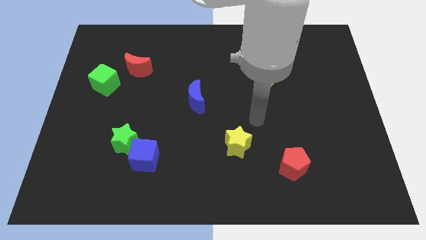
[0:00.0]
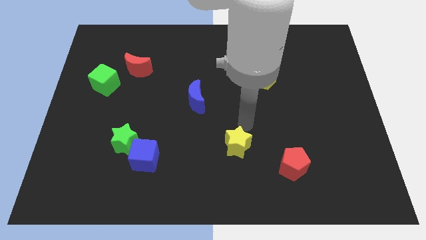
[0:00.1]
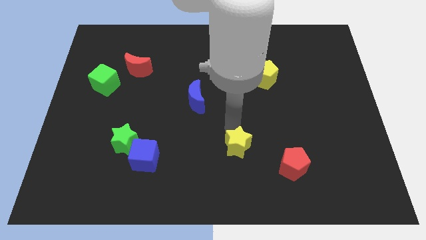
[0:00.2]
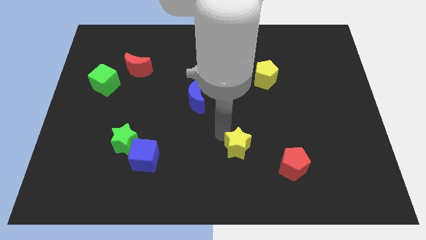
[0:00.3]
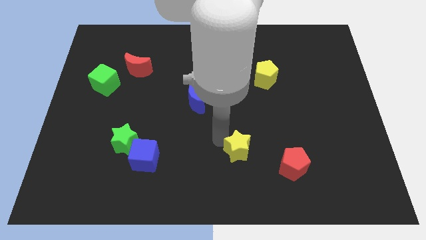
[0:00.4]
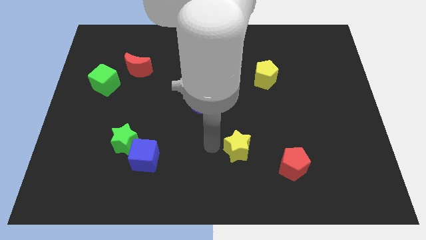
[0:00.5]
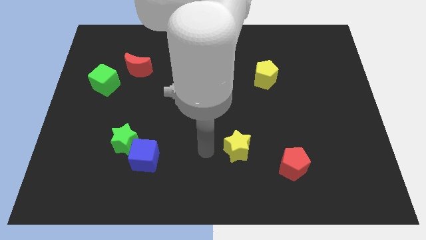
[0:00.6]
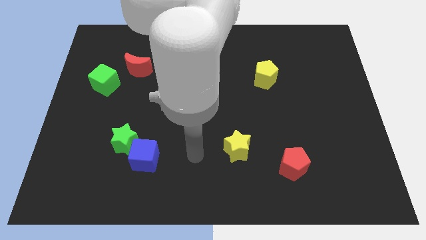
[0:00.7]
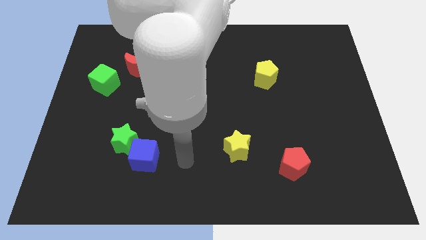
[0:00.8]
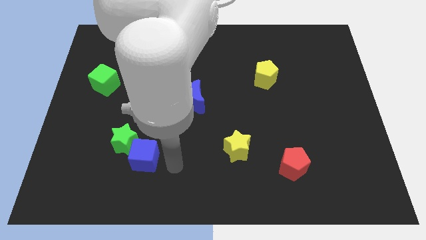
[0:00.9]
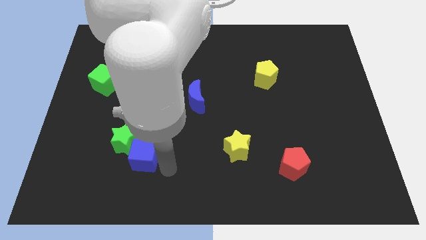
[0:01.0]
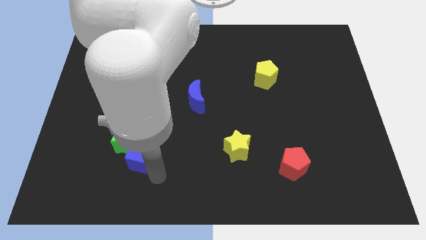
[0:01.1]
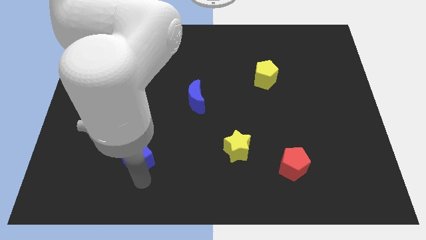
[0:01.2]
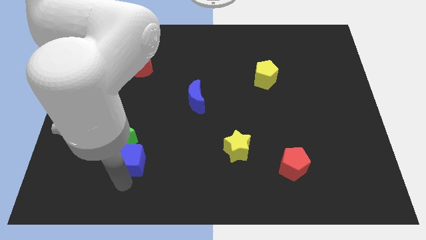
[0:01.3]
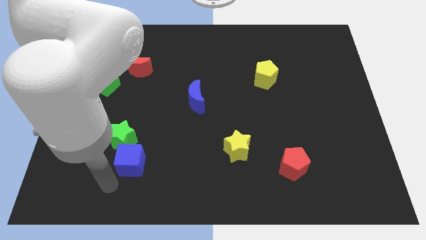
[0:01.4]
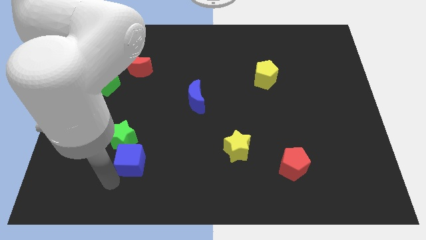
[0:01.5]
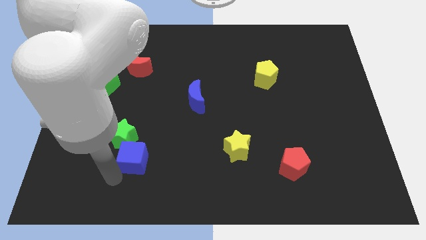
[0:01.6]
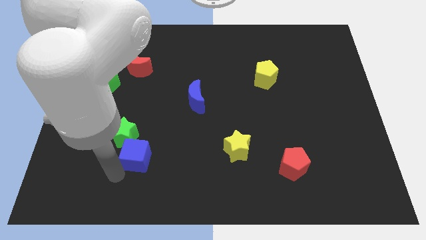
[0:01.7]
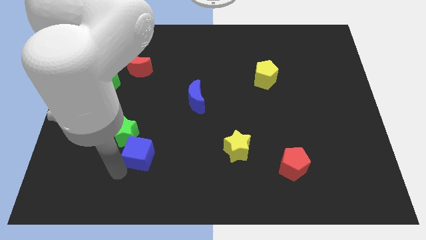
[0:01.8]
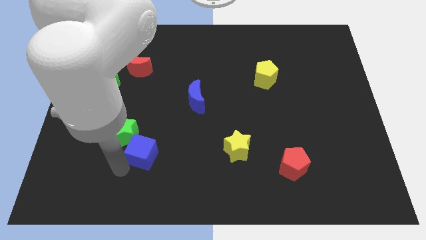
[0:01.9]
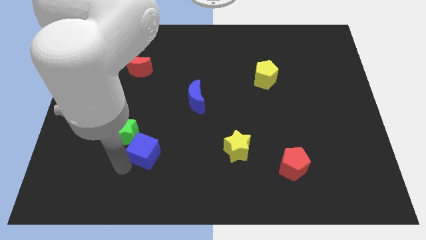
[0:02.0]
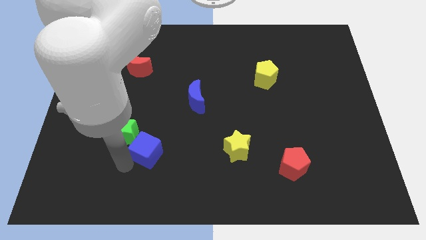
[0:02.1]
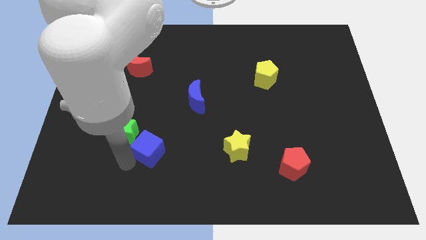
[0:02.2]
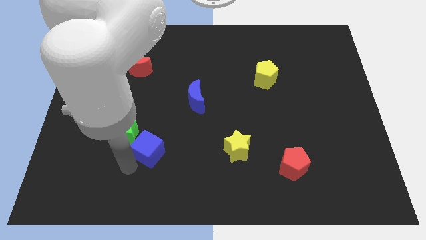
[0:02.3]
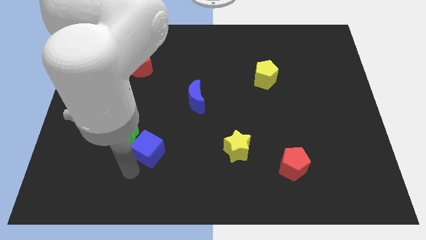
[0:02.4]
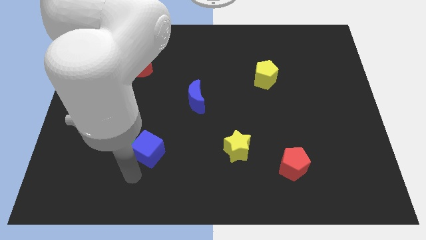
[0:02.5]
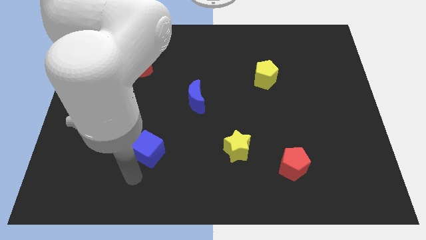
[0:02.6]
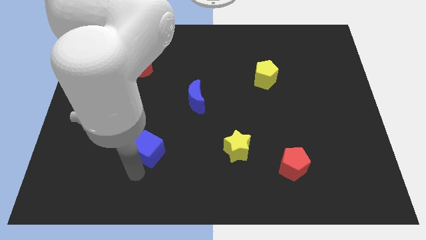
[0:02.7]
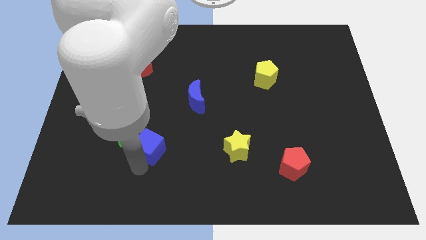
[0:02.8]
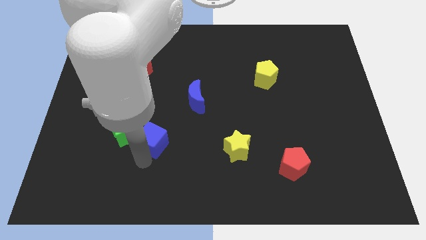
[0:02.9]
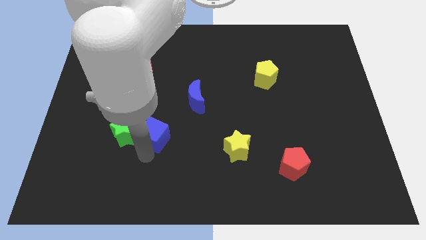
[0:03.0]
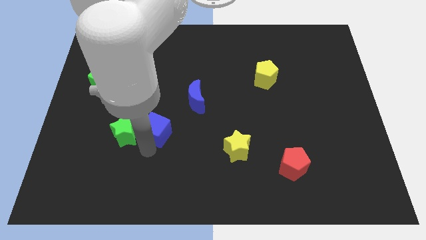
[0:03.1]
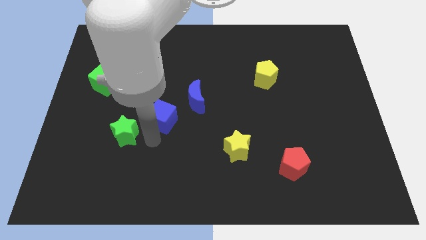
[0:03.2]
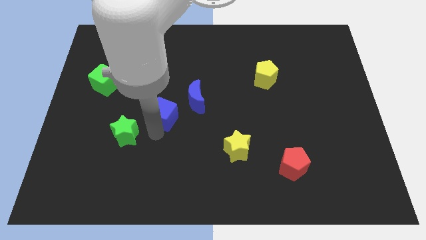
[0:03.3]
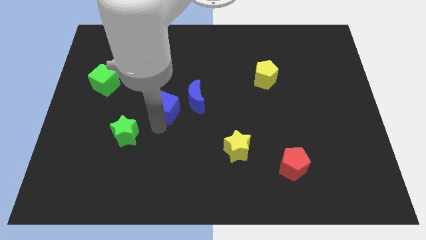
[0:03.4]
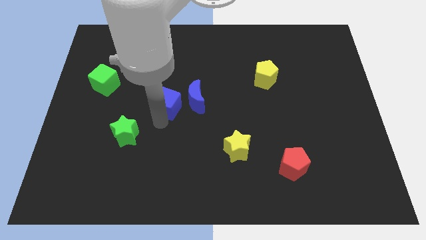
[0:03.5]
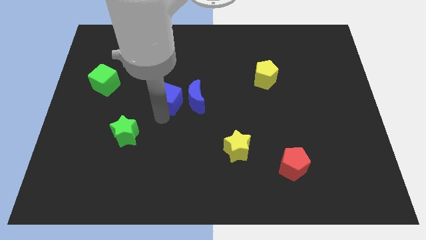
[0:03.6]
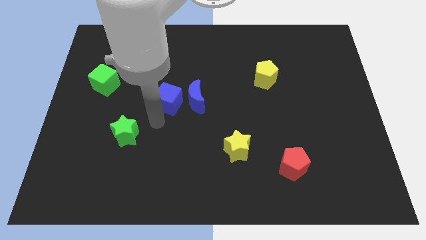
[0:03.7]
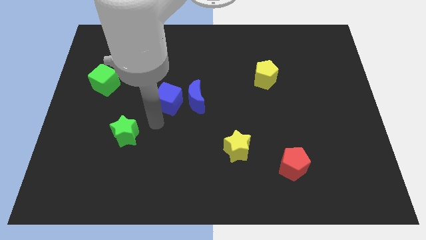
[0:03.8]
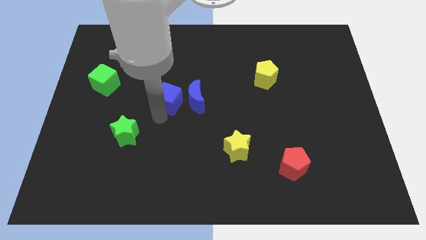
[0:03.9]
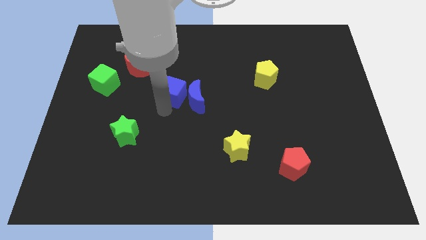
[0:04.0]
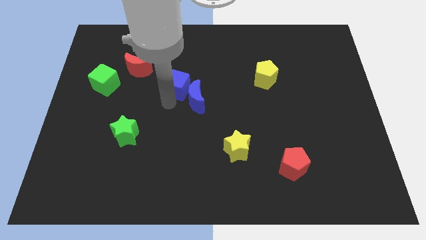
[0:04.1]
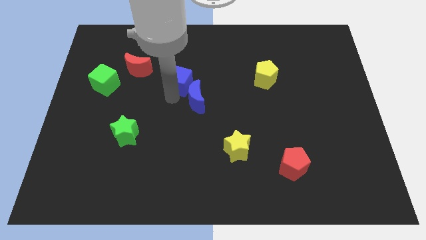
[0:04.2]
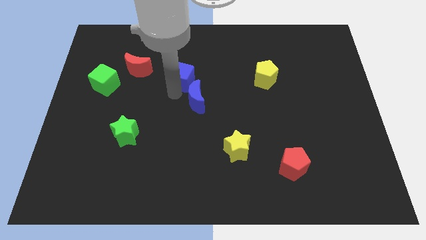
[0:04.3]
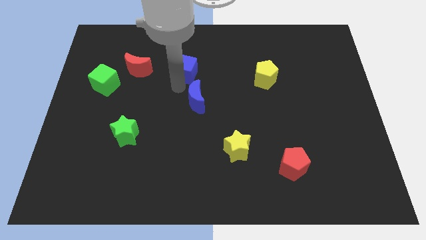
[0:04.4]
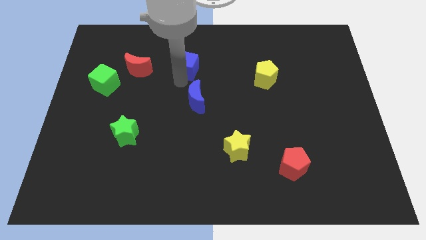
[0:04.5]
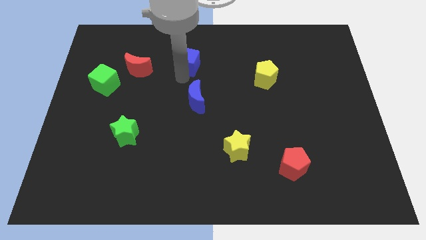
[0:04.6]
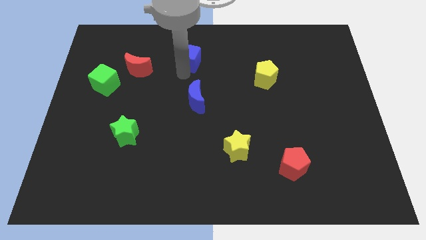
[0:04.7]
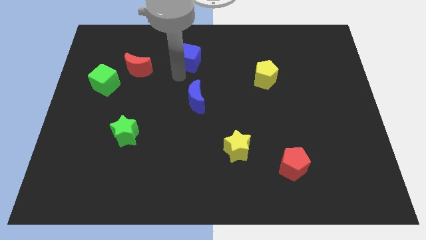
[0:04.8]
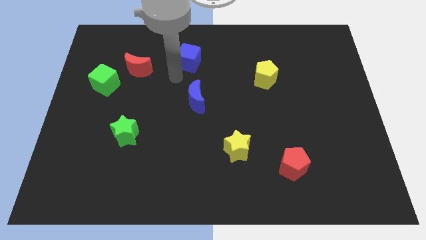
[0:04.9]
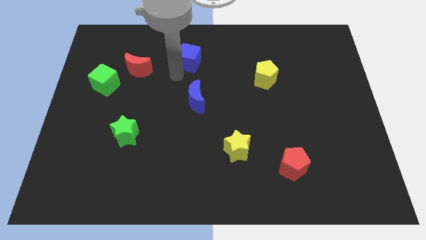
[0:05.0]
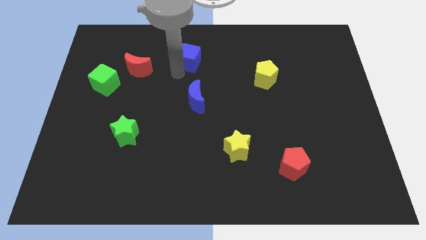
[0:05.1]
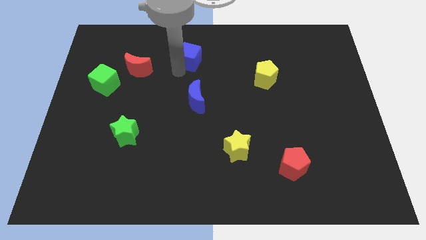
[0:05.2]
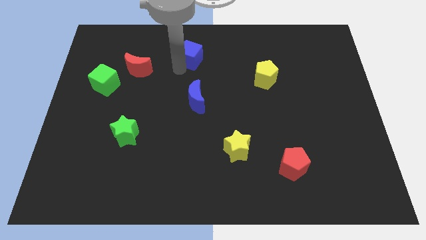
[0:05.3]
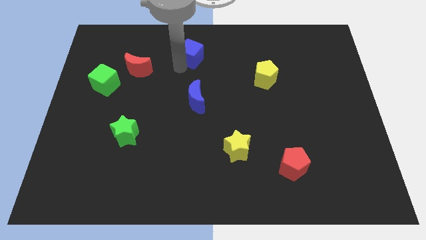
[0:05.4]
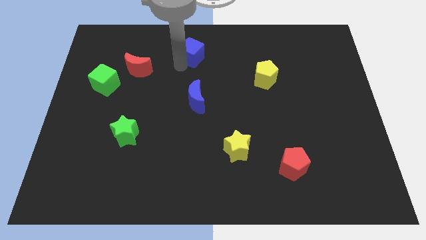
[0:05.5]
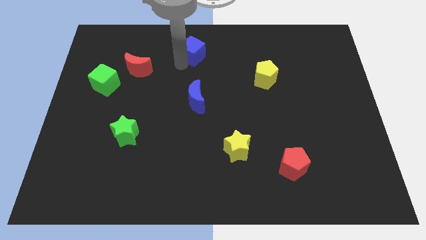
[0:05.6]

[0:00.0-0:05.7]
push the blue cube to the top side

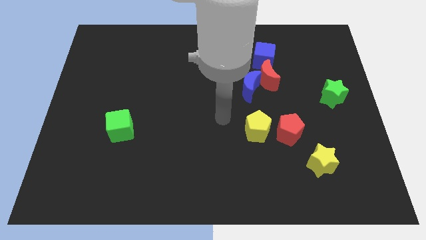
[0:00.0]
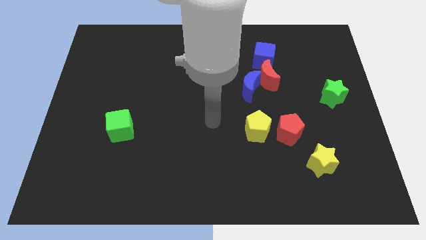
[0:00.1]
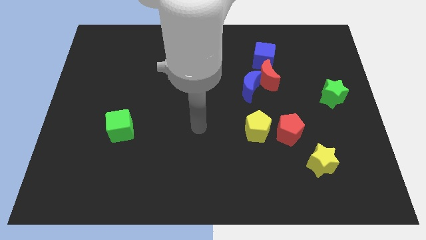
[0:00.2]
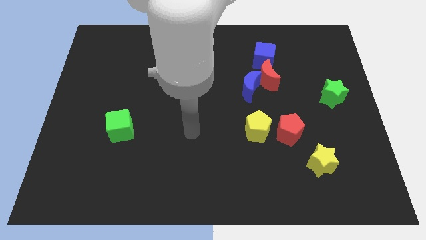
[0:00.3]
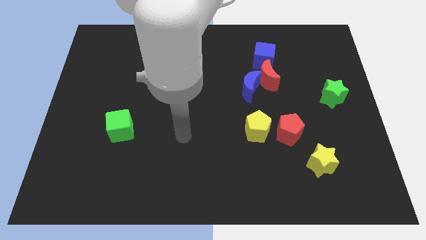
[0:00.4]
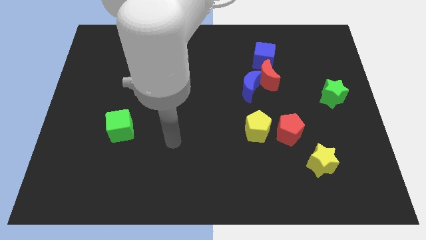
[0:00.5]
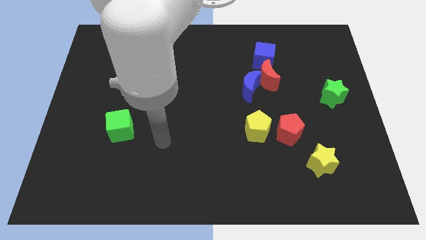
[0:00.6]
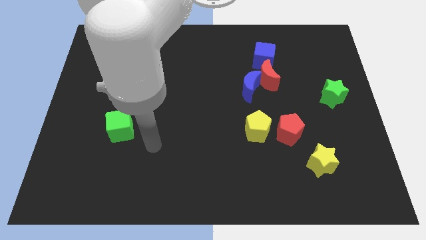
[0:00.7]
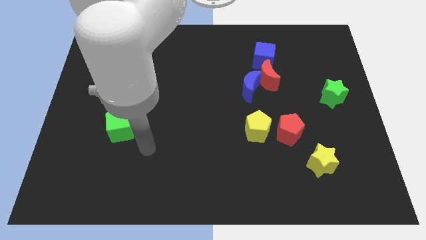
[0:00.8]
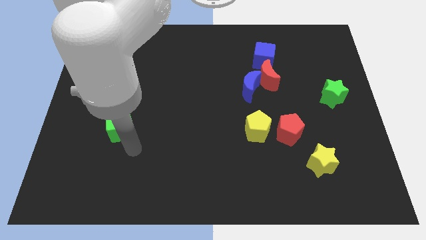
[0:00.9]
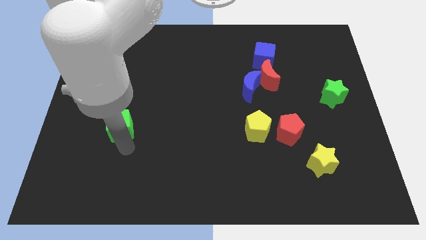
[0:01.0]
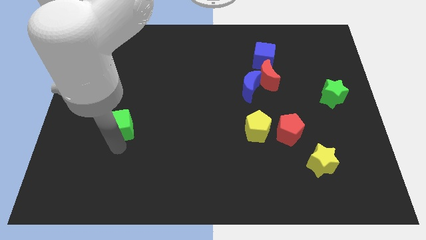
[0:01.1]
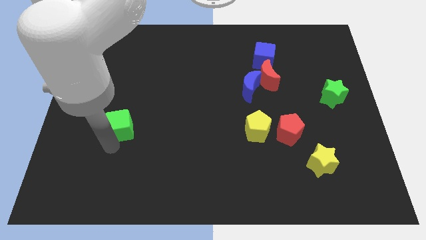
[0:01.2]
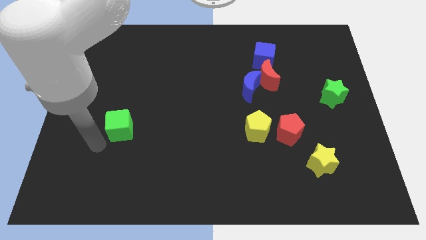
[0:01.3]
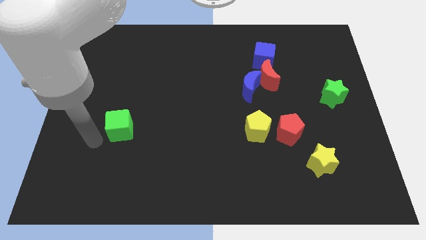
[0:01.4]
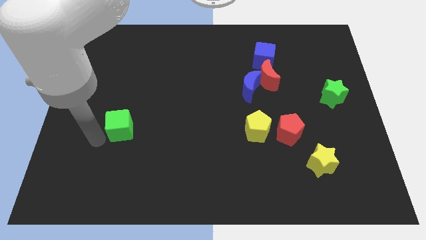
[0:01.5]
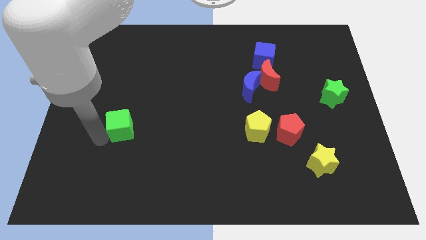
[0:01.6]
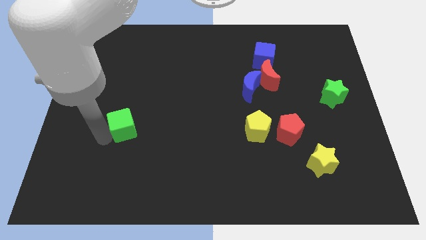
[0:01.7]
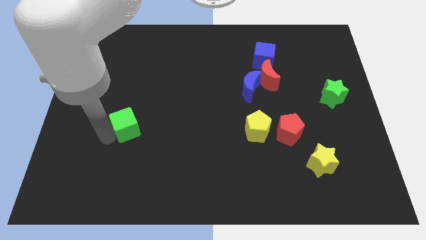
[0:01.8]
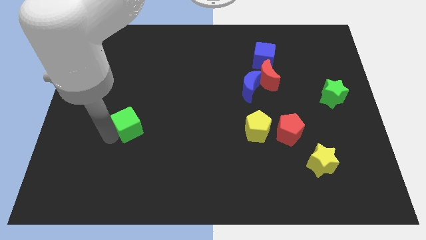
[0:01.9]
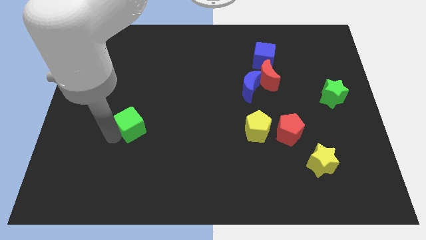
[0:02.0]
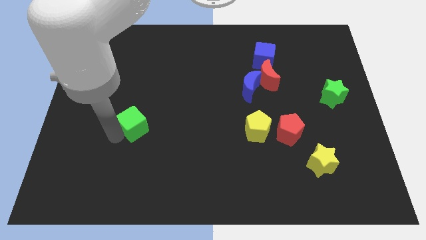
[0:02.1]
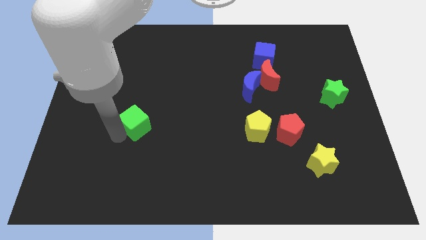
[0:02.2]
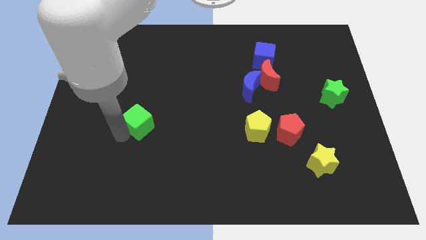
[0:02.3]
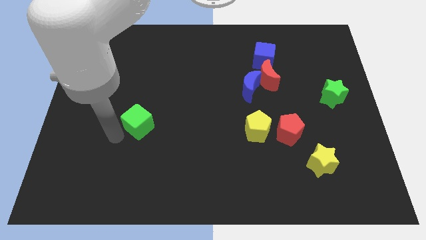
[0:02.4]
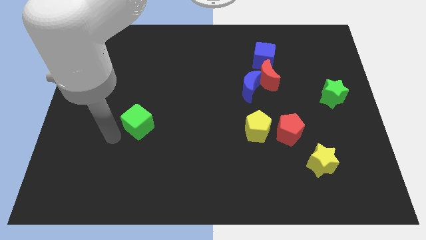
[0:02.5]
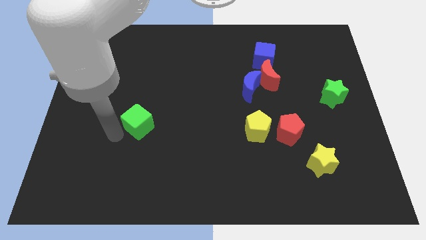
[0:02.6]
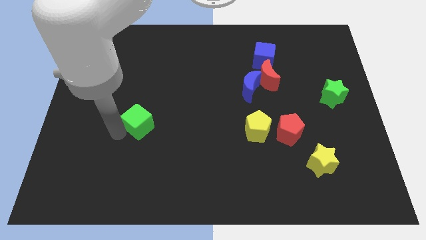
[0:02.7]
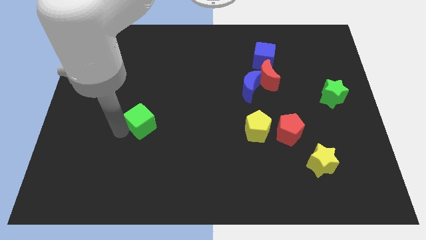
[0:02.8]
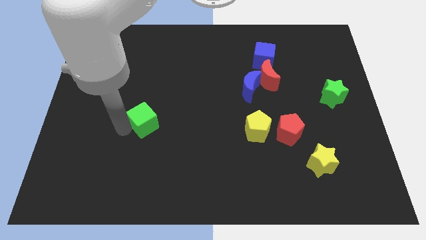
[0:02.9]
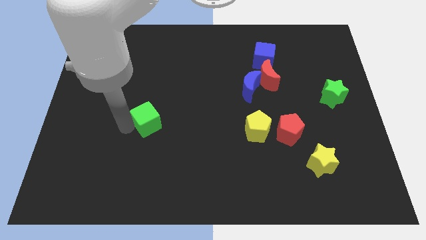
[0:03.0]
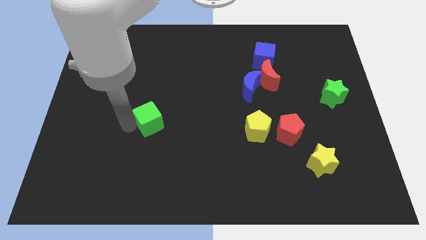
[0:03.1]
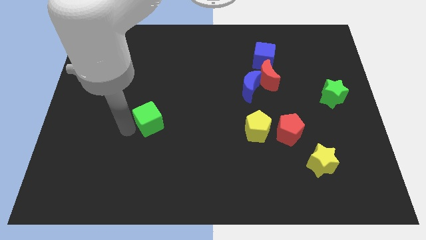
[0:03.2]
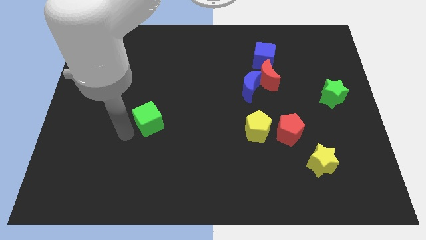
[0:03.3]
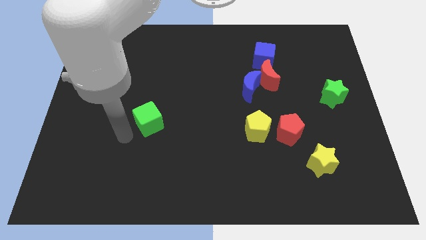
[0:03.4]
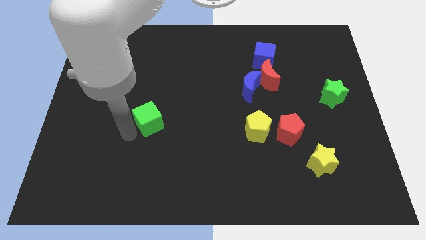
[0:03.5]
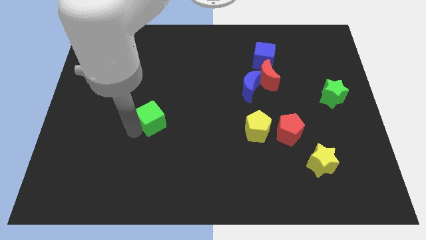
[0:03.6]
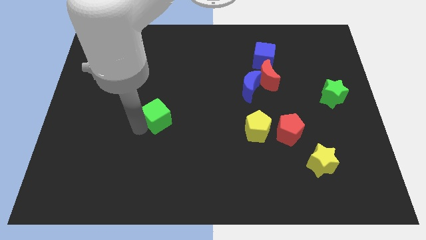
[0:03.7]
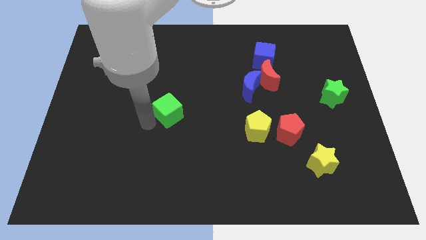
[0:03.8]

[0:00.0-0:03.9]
slide the green cube to the middle of the board
